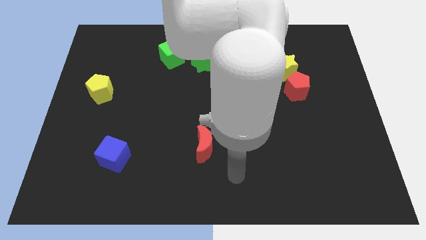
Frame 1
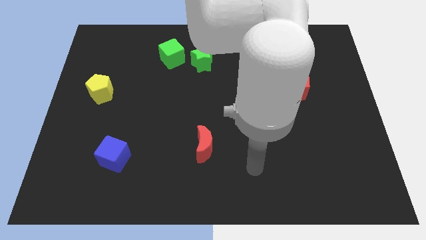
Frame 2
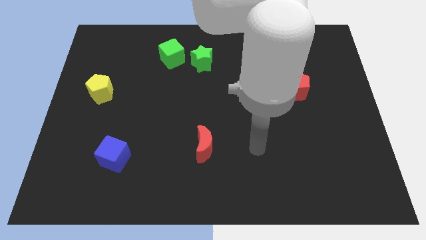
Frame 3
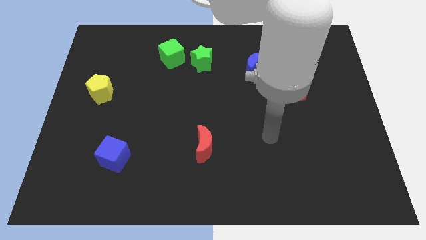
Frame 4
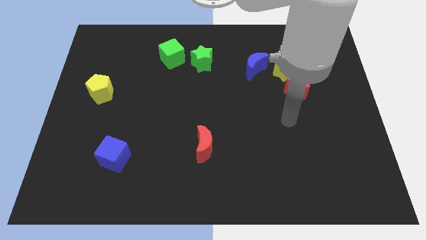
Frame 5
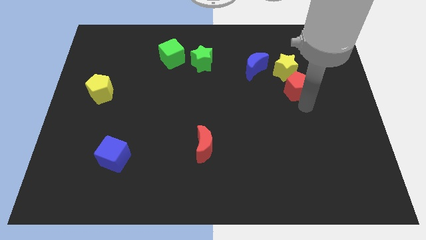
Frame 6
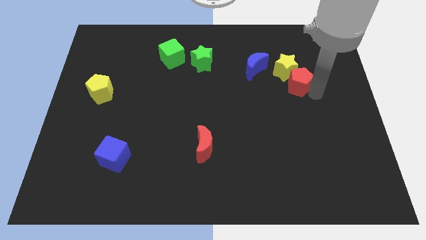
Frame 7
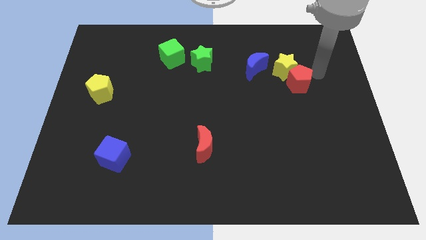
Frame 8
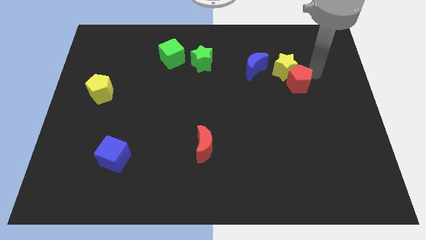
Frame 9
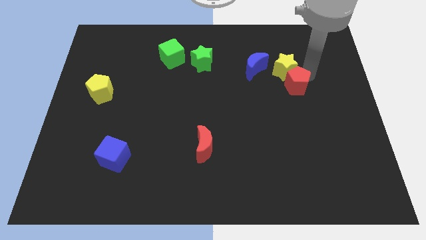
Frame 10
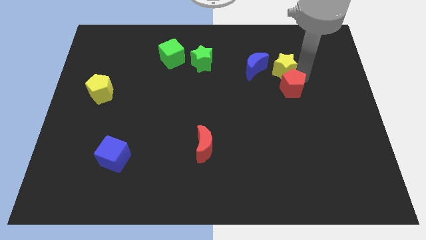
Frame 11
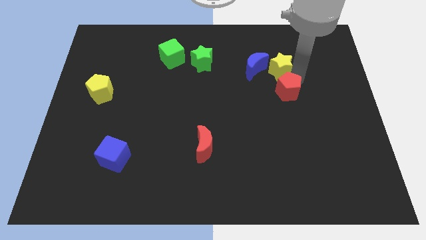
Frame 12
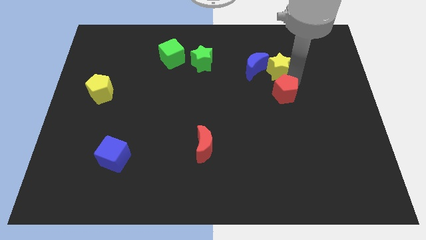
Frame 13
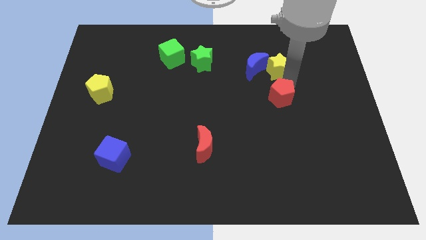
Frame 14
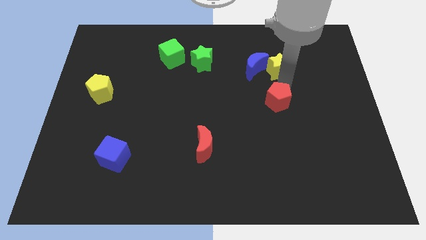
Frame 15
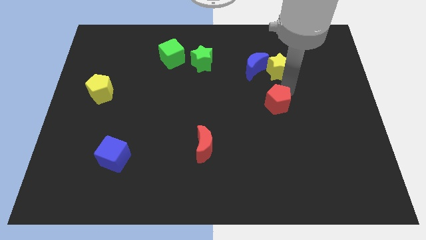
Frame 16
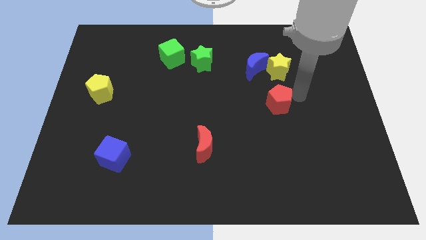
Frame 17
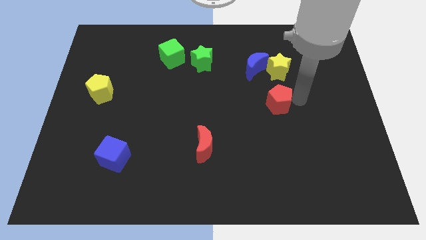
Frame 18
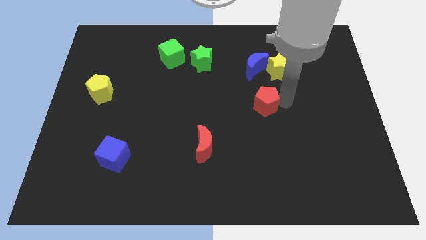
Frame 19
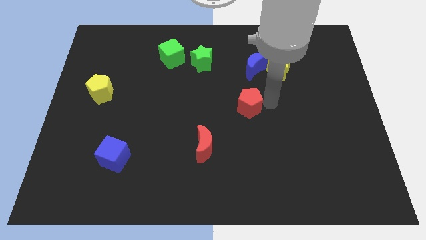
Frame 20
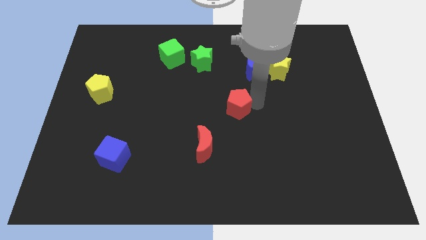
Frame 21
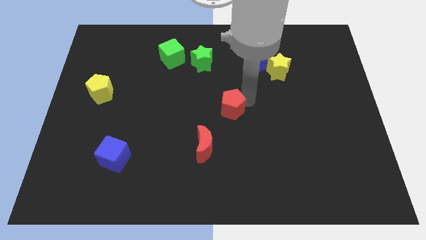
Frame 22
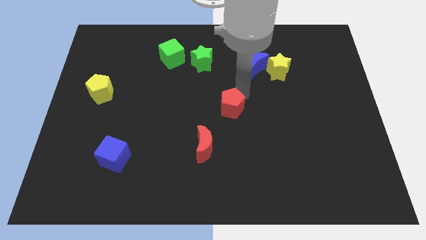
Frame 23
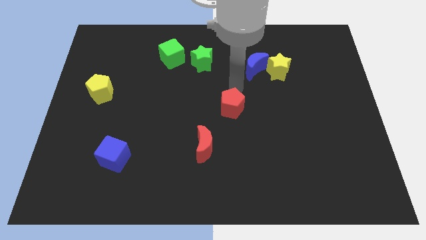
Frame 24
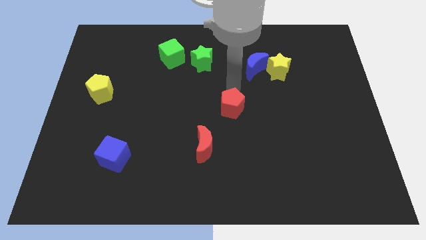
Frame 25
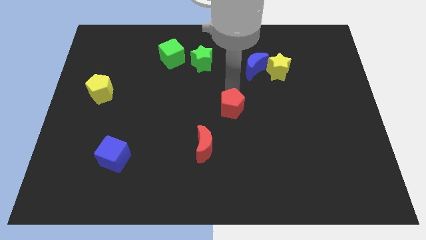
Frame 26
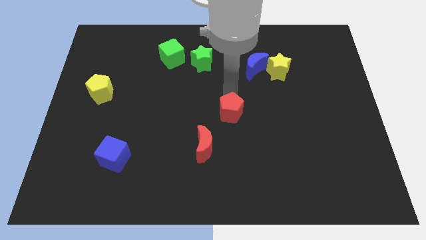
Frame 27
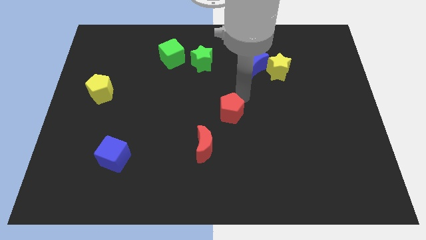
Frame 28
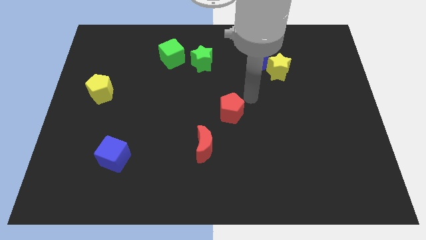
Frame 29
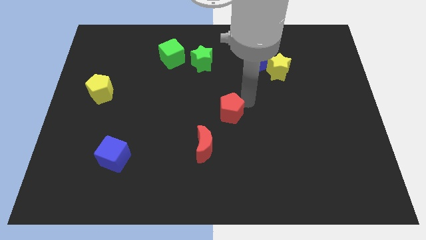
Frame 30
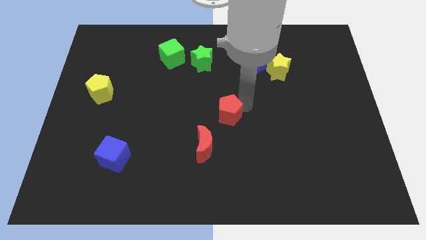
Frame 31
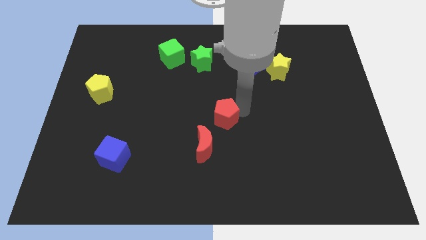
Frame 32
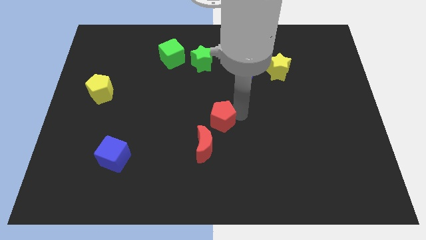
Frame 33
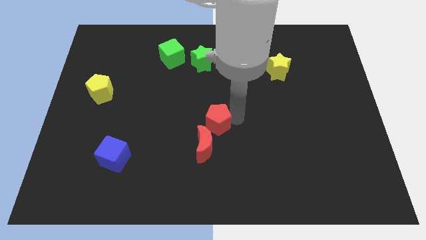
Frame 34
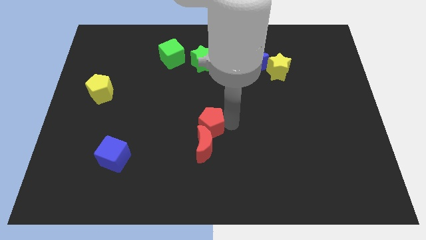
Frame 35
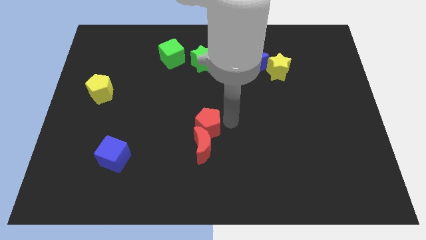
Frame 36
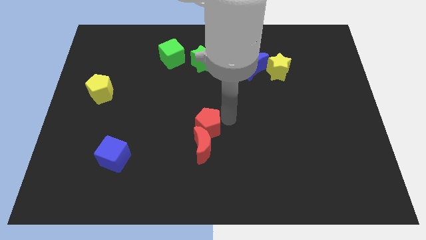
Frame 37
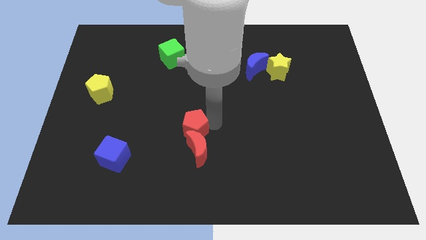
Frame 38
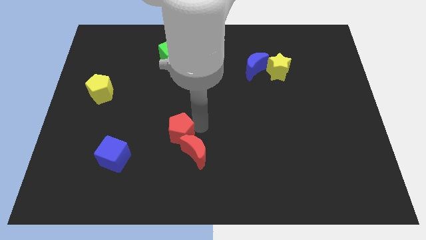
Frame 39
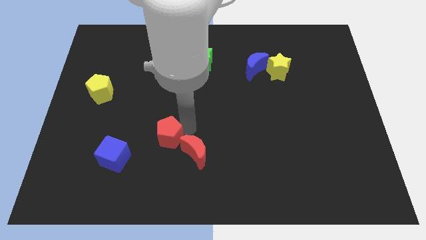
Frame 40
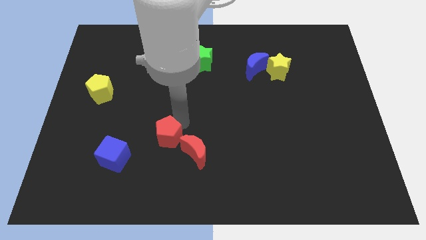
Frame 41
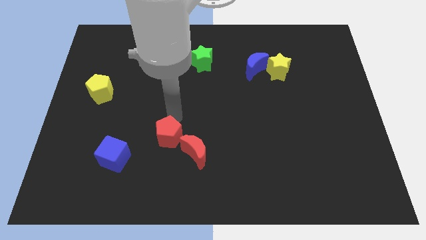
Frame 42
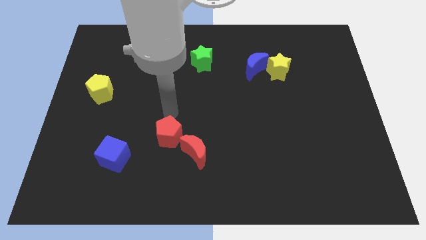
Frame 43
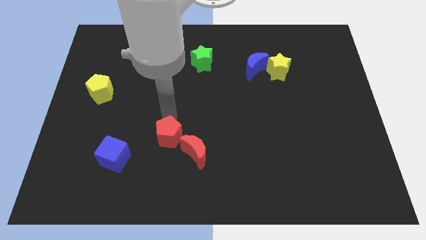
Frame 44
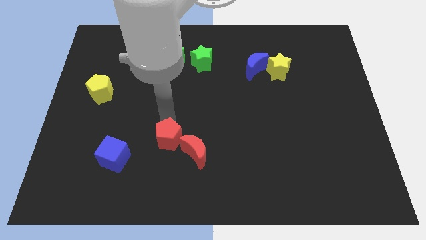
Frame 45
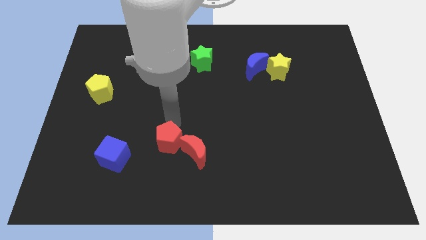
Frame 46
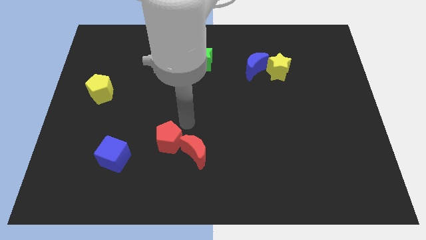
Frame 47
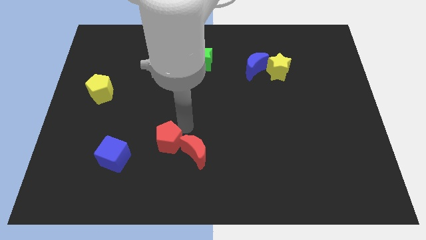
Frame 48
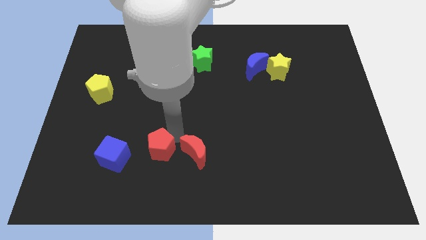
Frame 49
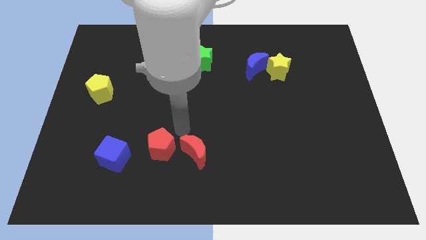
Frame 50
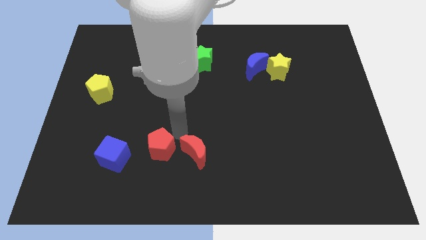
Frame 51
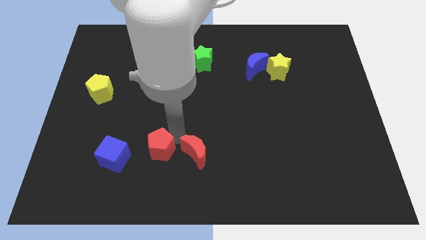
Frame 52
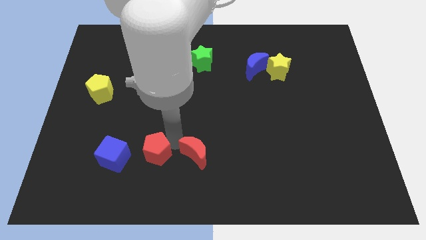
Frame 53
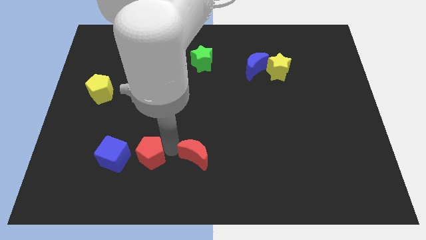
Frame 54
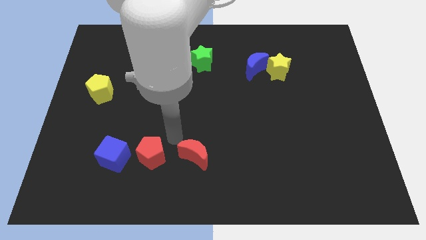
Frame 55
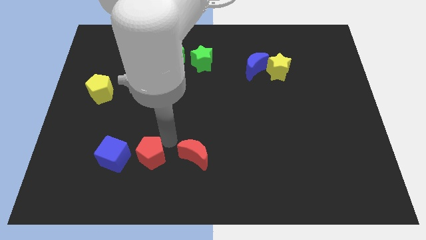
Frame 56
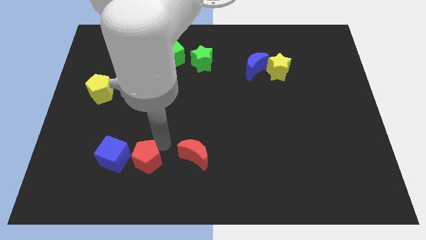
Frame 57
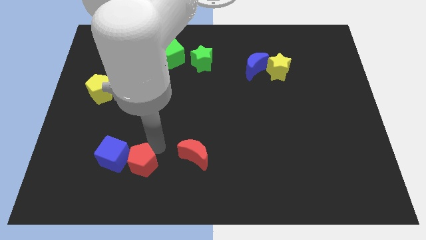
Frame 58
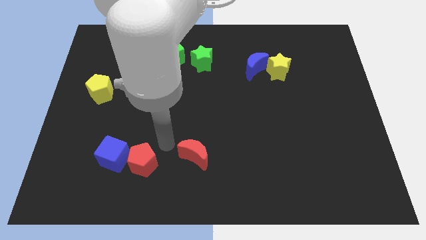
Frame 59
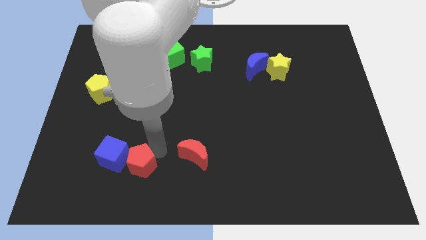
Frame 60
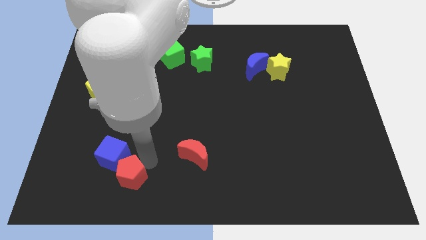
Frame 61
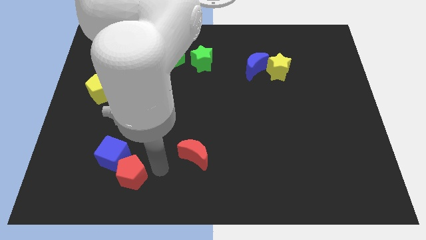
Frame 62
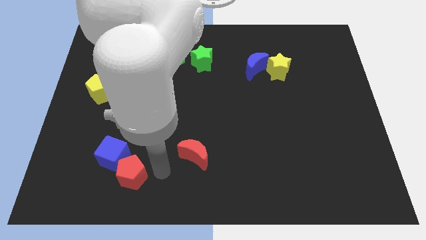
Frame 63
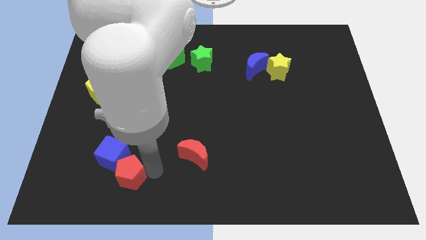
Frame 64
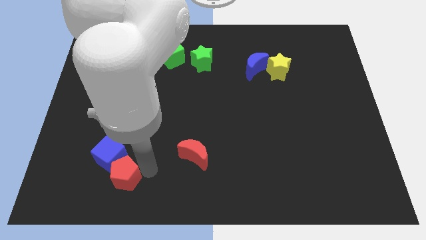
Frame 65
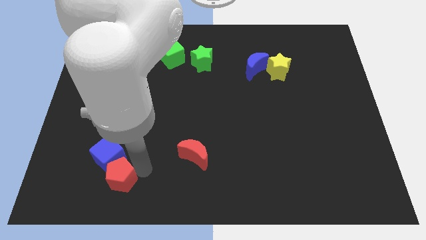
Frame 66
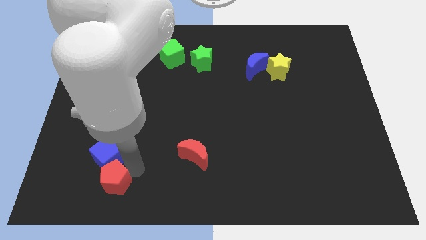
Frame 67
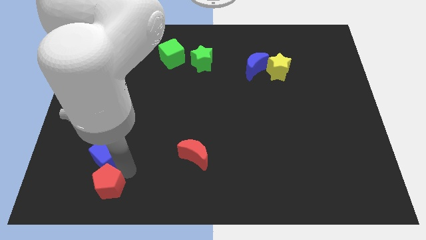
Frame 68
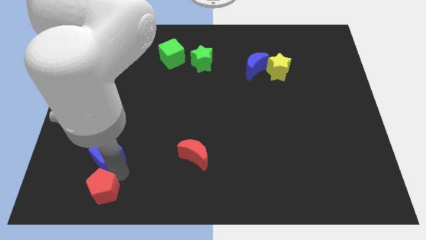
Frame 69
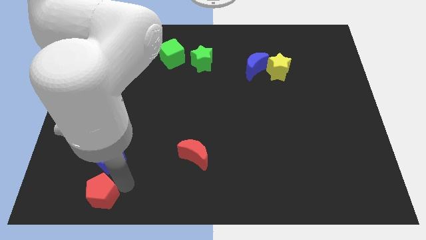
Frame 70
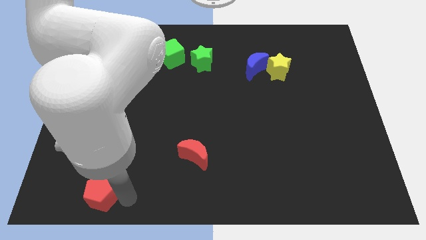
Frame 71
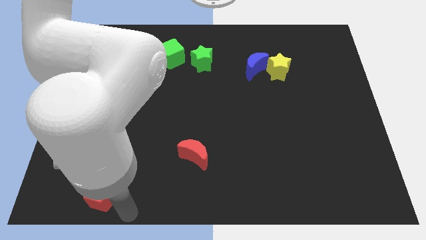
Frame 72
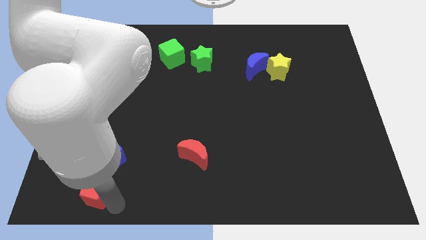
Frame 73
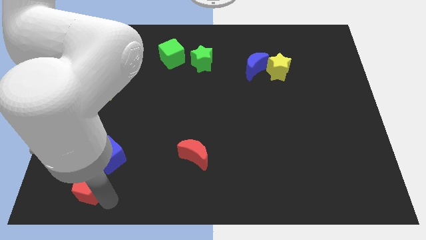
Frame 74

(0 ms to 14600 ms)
slide the red pentagon to the bottom left side of the blue cube
